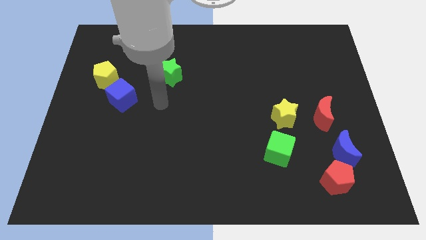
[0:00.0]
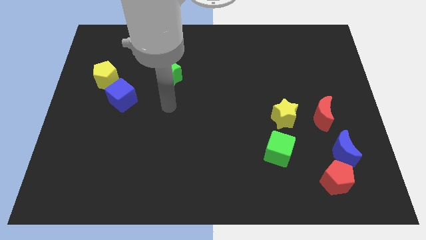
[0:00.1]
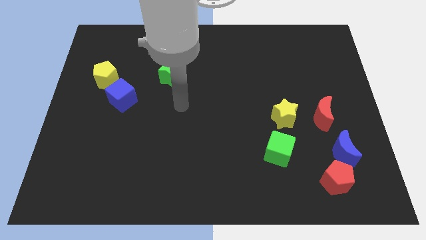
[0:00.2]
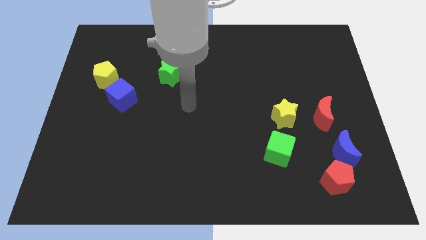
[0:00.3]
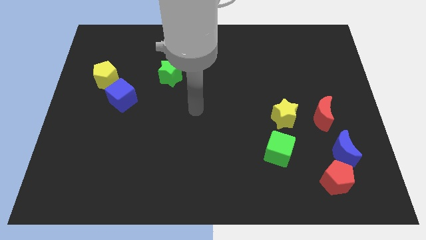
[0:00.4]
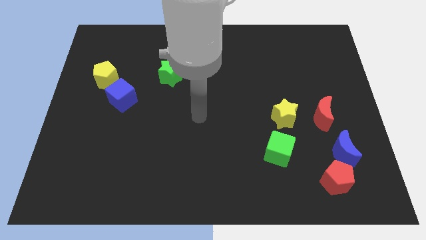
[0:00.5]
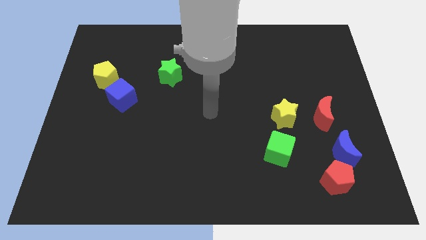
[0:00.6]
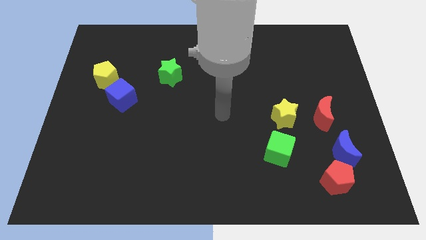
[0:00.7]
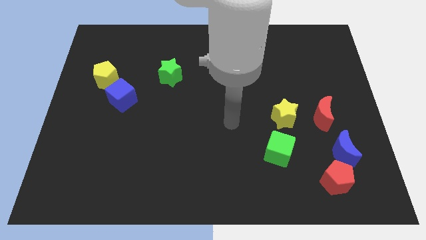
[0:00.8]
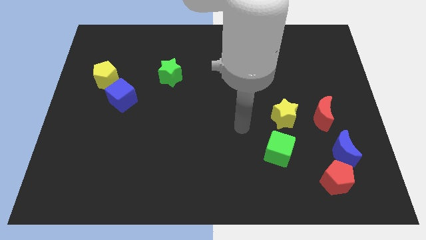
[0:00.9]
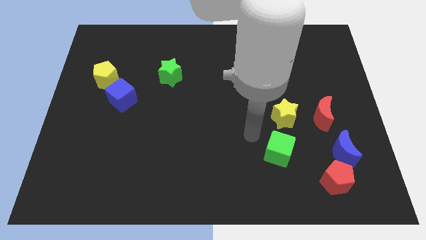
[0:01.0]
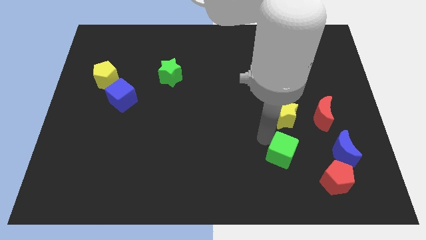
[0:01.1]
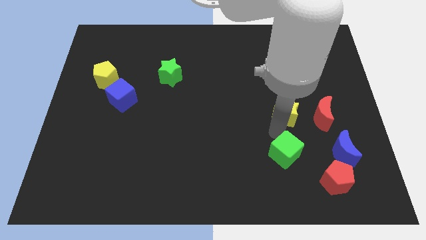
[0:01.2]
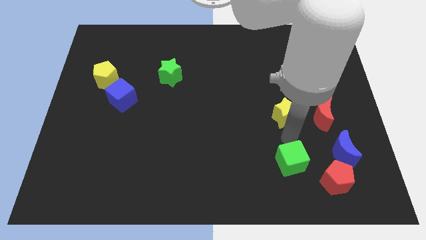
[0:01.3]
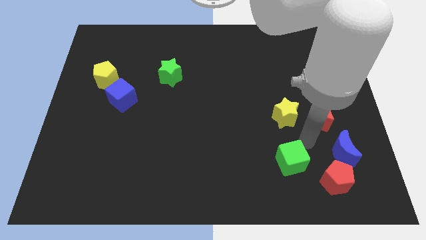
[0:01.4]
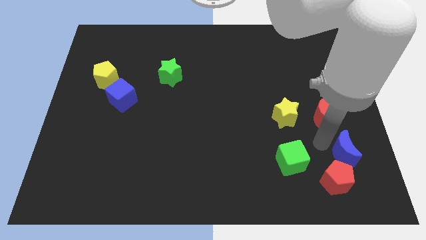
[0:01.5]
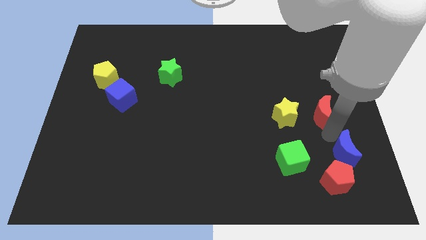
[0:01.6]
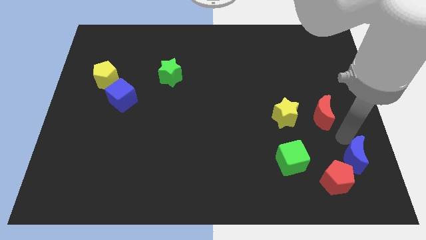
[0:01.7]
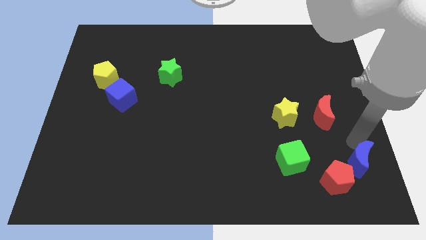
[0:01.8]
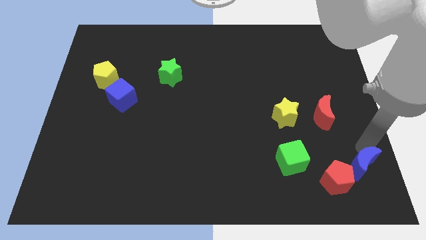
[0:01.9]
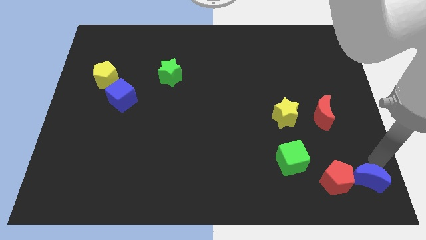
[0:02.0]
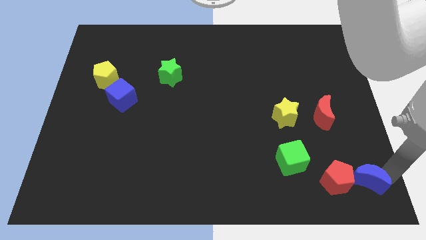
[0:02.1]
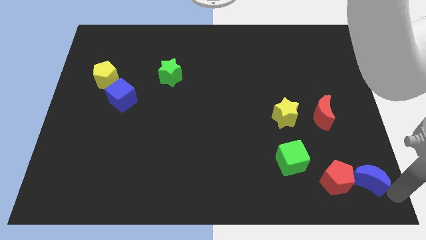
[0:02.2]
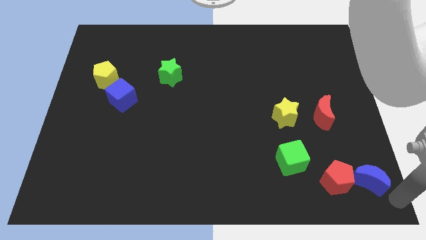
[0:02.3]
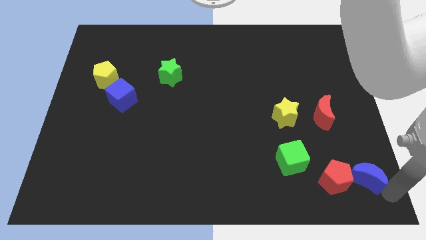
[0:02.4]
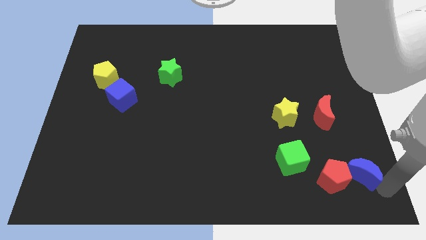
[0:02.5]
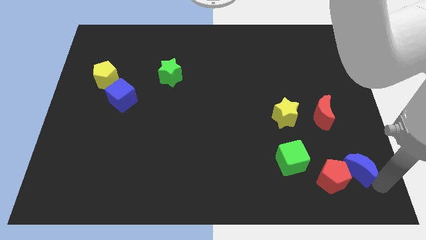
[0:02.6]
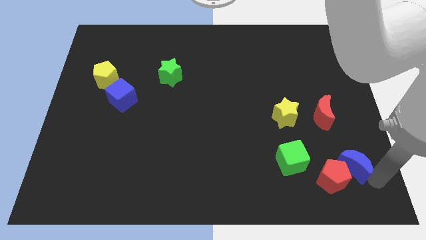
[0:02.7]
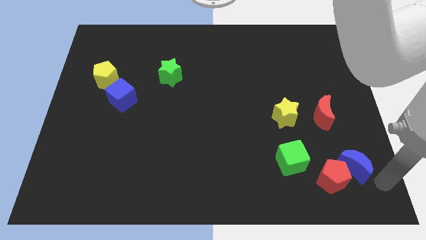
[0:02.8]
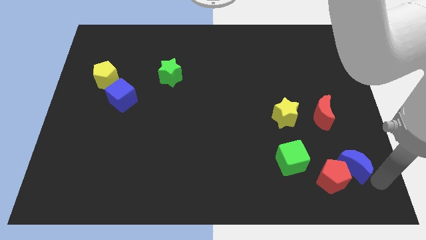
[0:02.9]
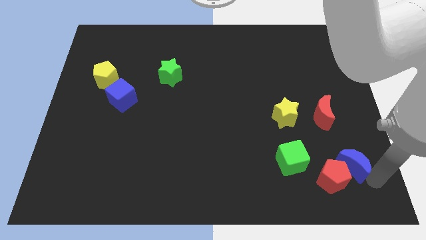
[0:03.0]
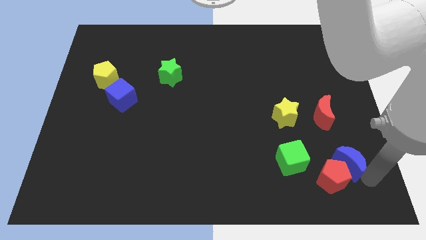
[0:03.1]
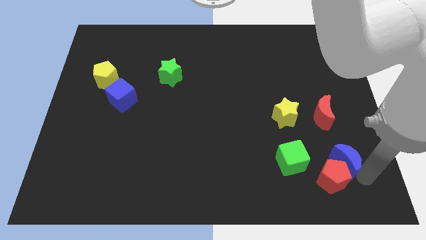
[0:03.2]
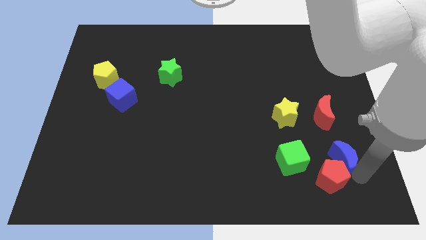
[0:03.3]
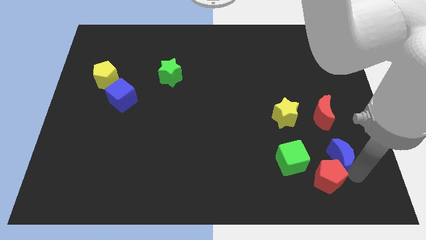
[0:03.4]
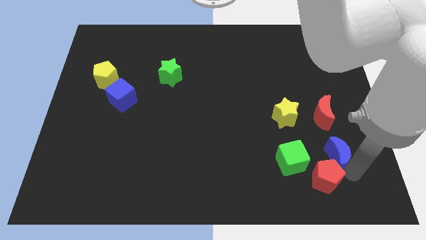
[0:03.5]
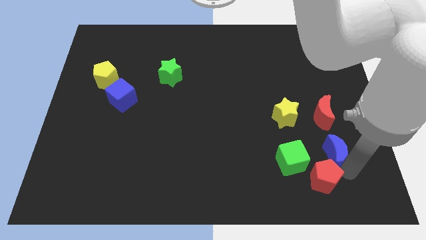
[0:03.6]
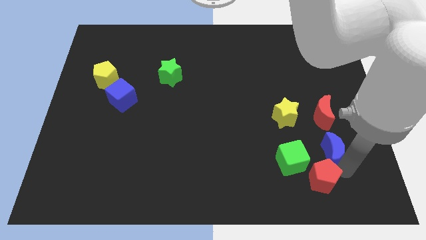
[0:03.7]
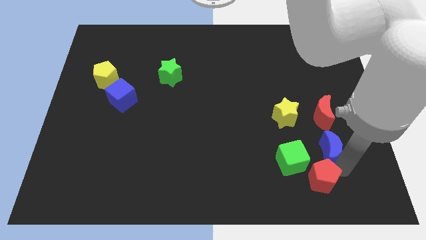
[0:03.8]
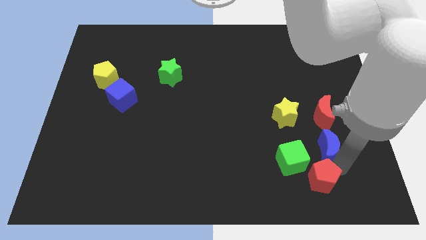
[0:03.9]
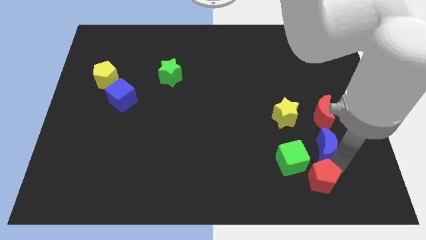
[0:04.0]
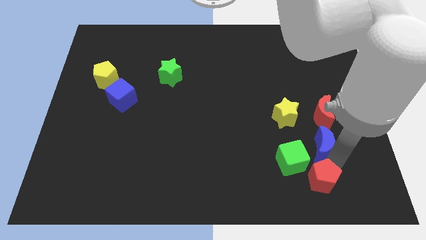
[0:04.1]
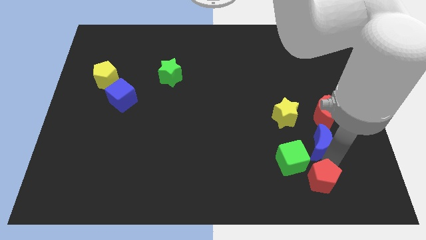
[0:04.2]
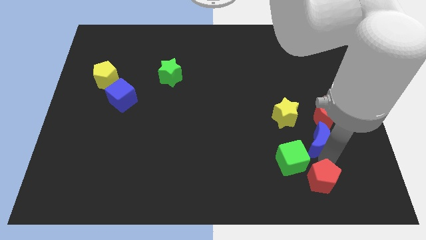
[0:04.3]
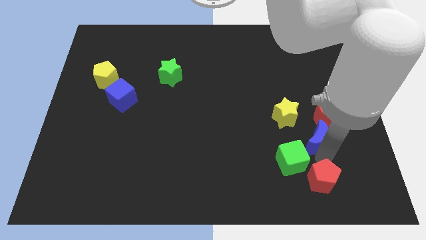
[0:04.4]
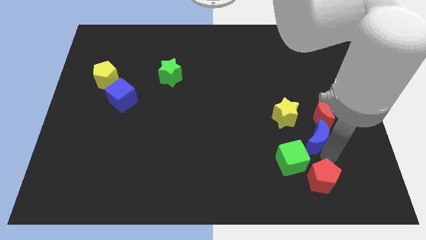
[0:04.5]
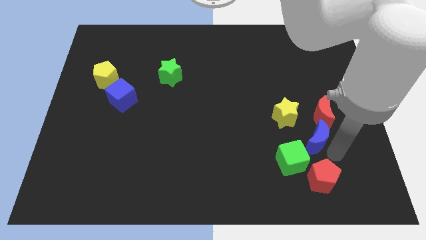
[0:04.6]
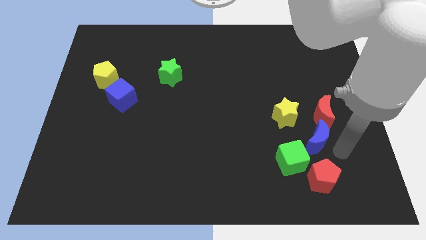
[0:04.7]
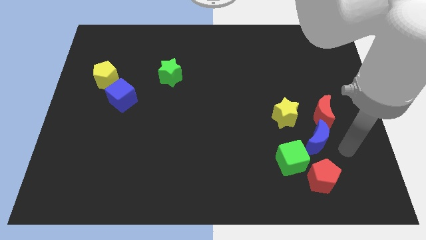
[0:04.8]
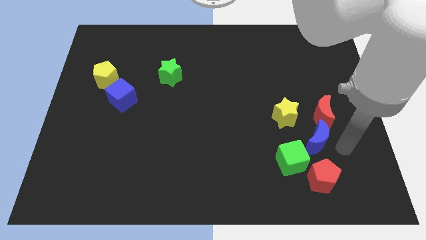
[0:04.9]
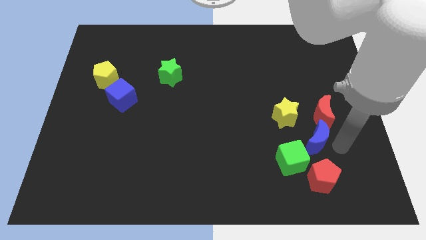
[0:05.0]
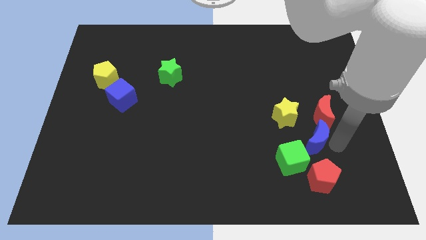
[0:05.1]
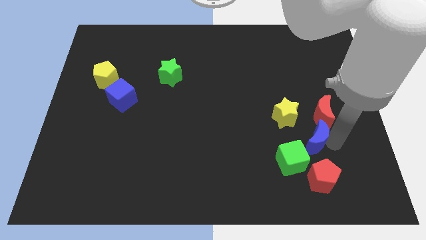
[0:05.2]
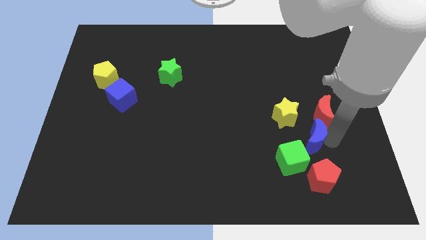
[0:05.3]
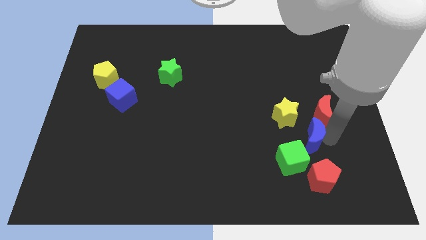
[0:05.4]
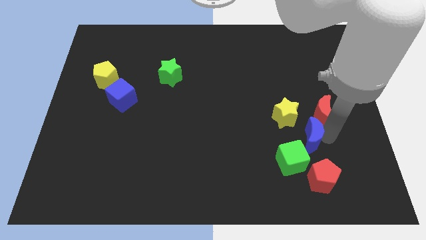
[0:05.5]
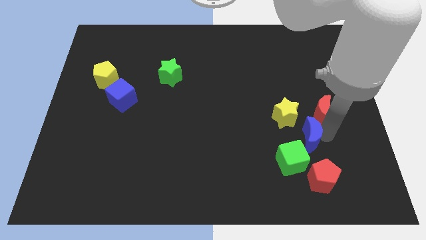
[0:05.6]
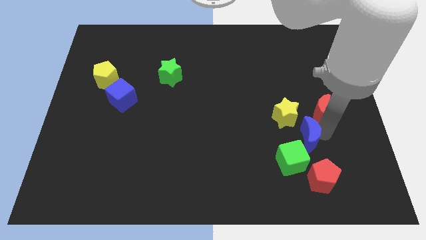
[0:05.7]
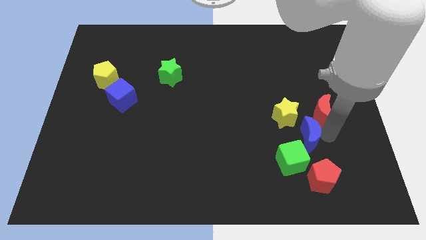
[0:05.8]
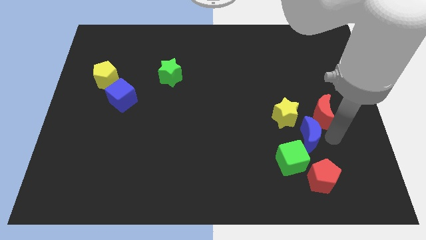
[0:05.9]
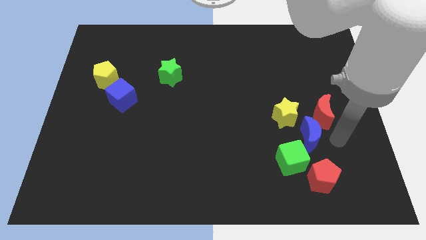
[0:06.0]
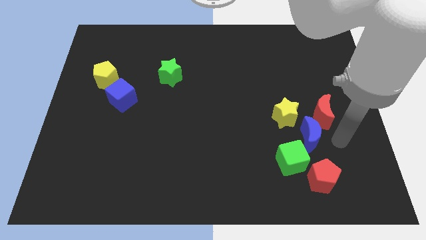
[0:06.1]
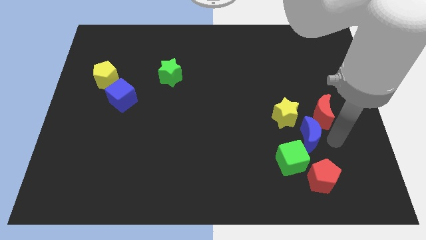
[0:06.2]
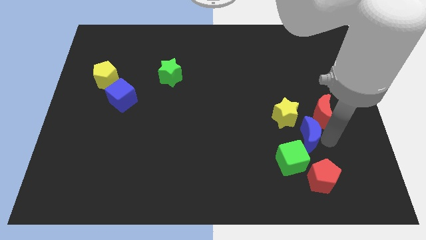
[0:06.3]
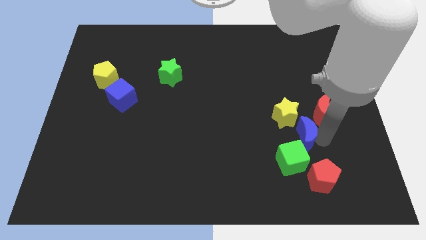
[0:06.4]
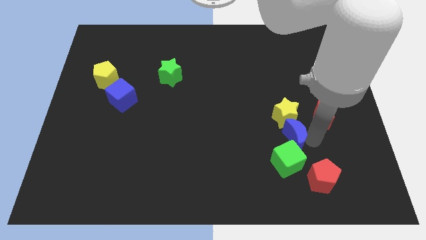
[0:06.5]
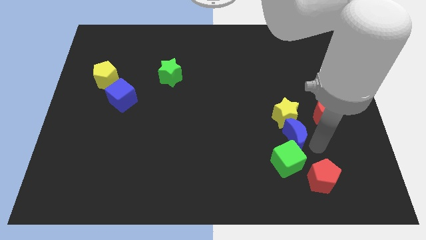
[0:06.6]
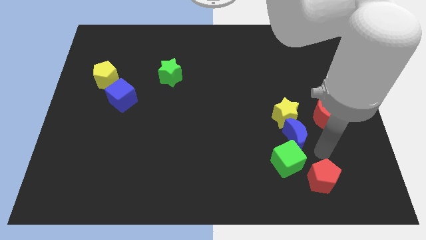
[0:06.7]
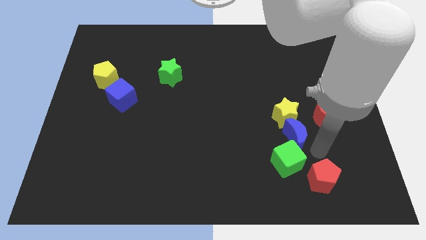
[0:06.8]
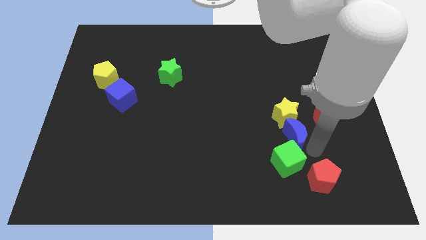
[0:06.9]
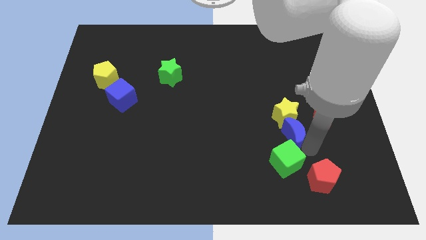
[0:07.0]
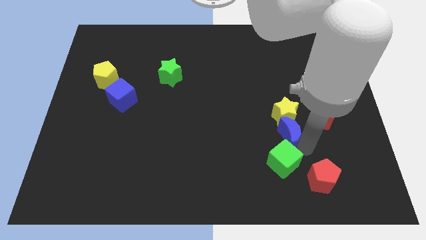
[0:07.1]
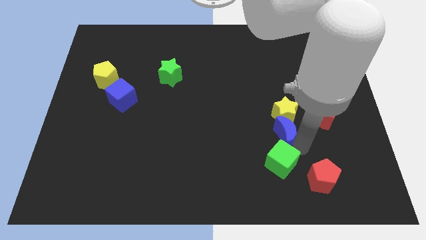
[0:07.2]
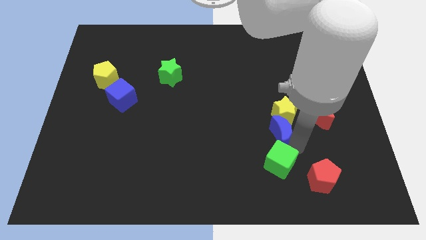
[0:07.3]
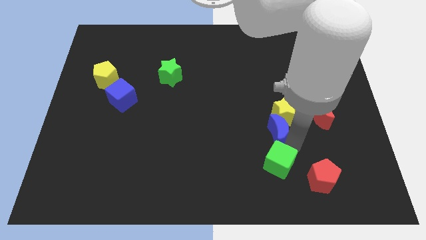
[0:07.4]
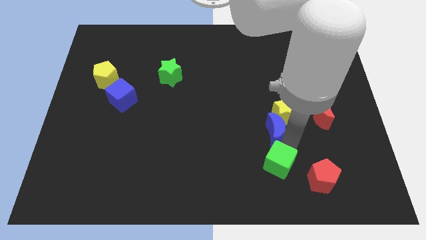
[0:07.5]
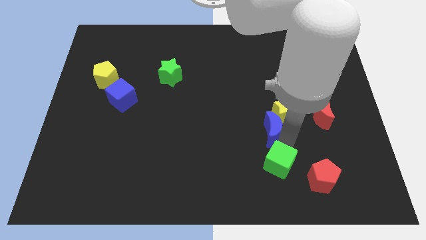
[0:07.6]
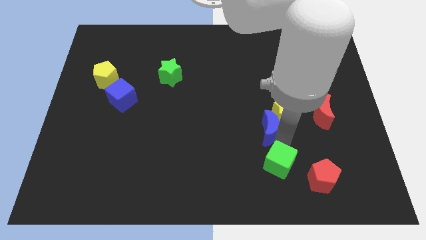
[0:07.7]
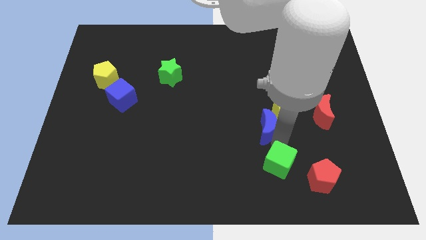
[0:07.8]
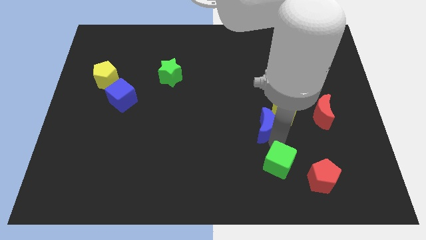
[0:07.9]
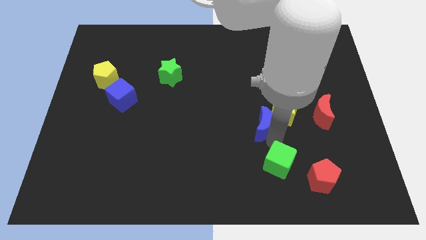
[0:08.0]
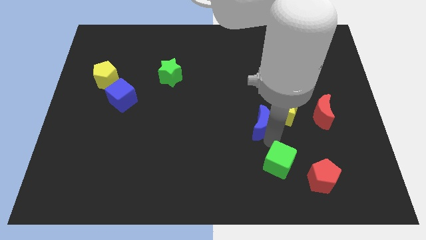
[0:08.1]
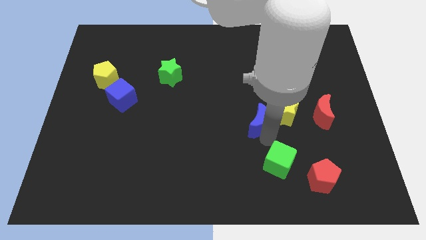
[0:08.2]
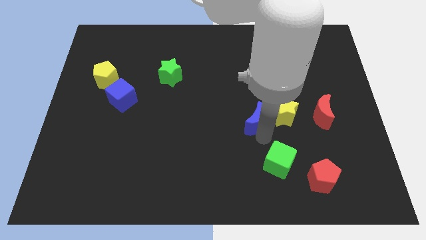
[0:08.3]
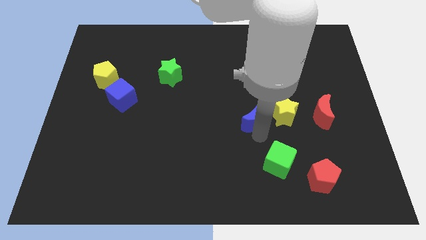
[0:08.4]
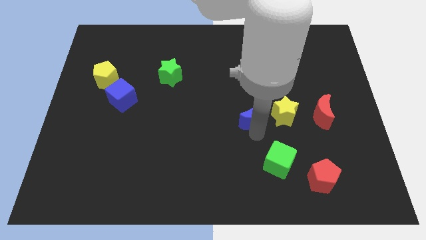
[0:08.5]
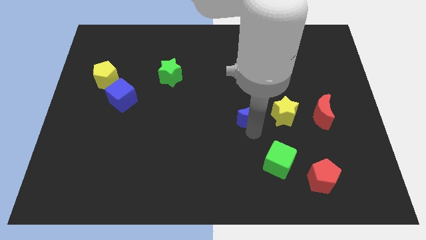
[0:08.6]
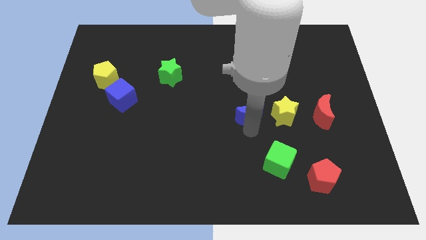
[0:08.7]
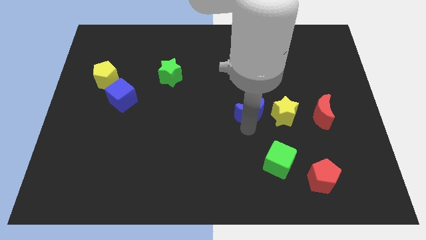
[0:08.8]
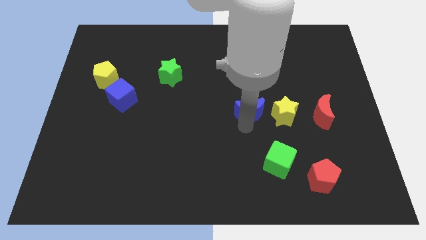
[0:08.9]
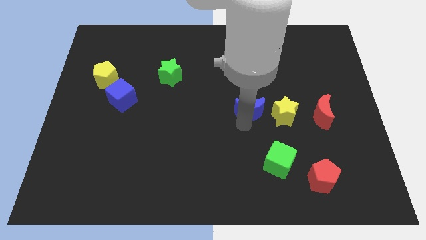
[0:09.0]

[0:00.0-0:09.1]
slide the blue moon upwards and then to the left
